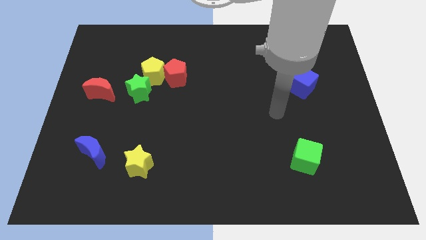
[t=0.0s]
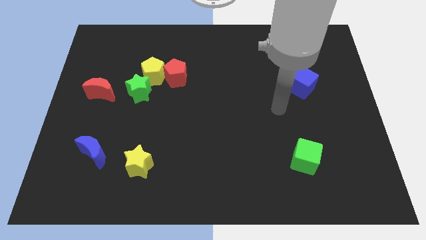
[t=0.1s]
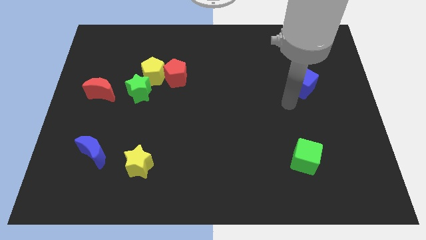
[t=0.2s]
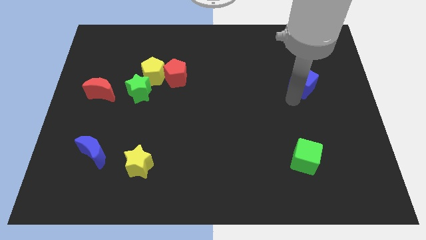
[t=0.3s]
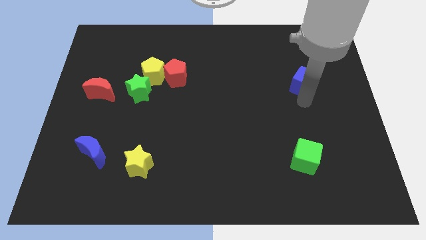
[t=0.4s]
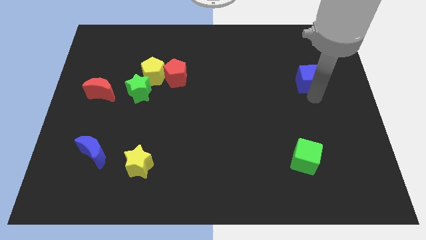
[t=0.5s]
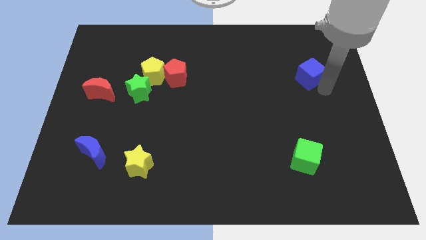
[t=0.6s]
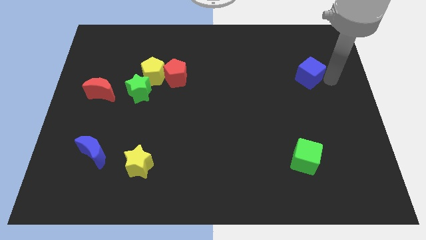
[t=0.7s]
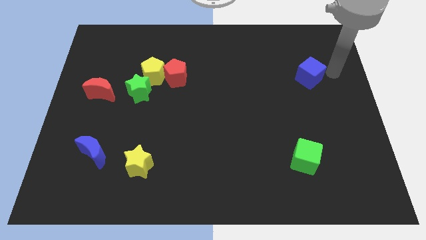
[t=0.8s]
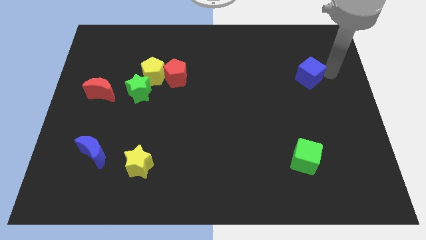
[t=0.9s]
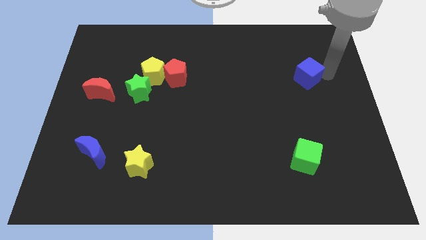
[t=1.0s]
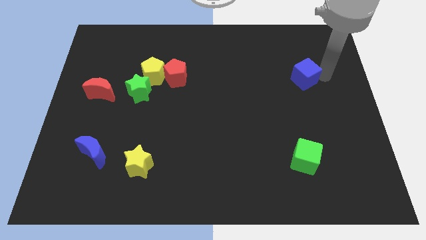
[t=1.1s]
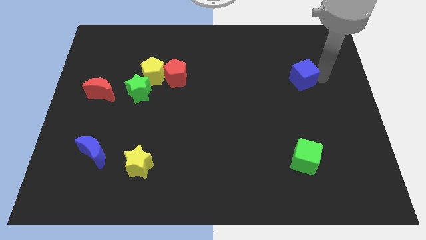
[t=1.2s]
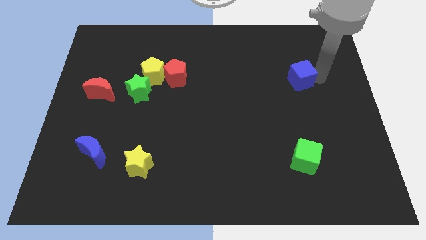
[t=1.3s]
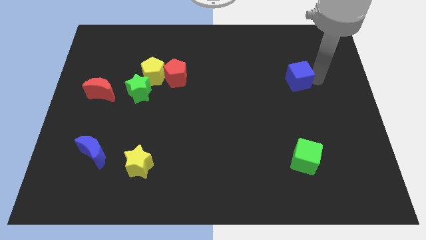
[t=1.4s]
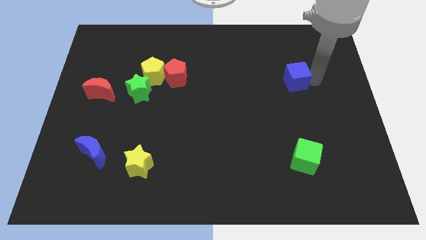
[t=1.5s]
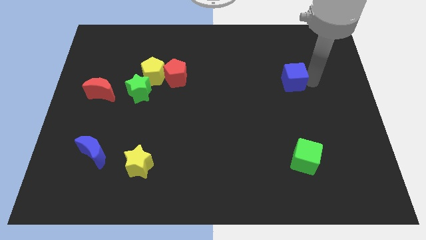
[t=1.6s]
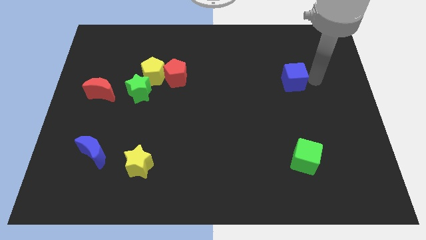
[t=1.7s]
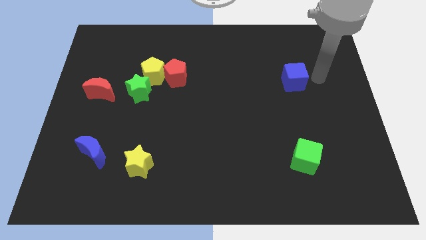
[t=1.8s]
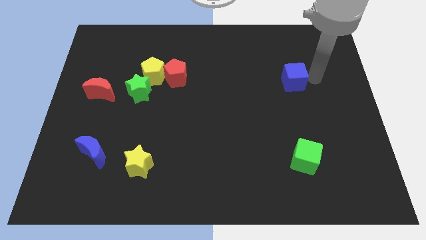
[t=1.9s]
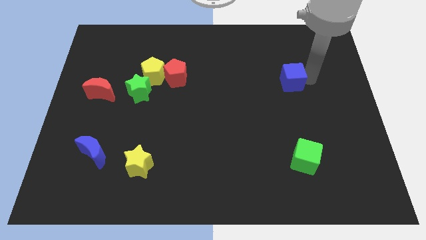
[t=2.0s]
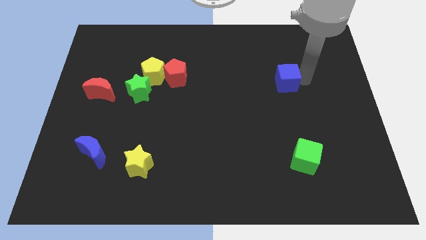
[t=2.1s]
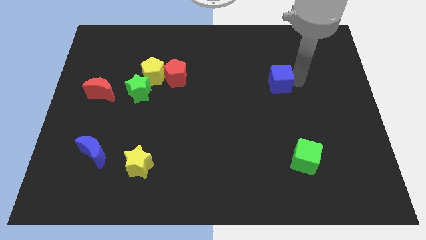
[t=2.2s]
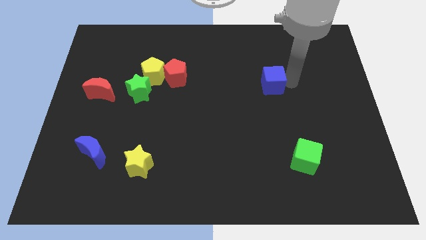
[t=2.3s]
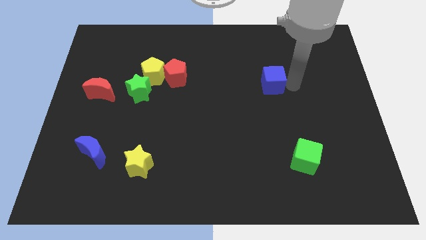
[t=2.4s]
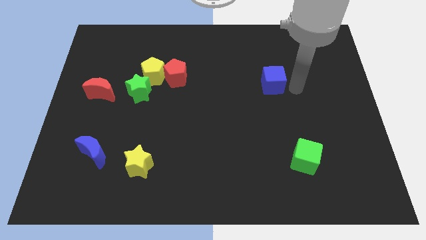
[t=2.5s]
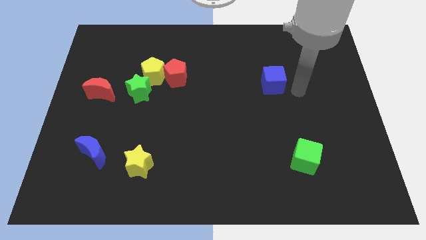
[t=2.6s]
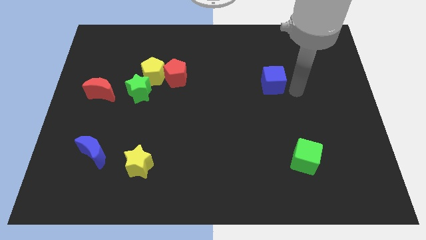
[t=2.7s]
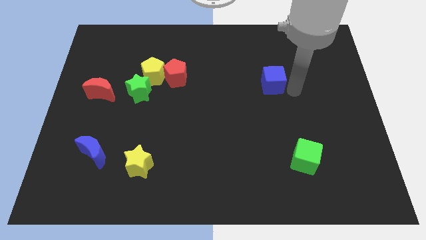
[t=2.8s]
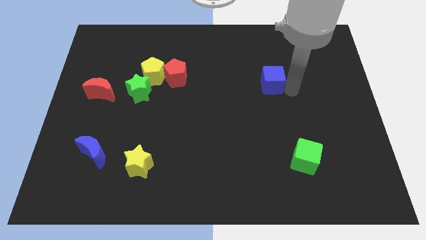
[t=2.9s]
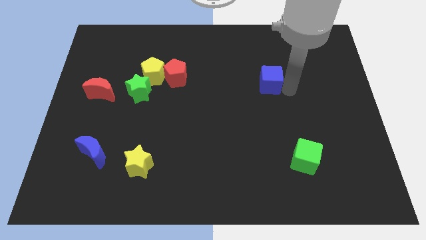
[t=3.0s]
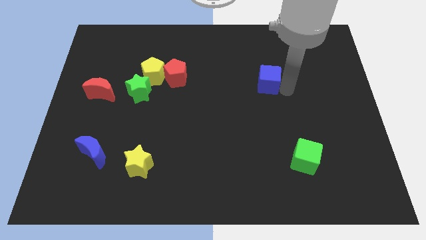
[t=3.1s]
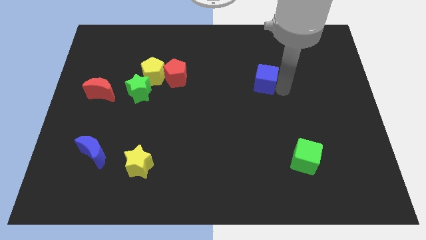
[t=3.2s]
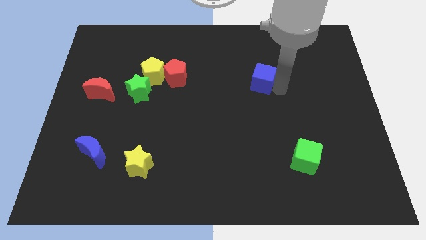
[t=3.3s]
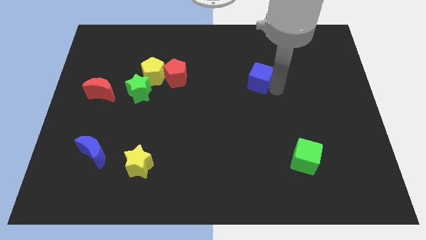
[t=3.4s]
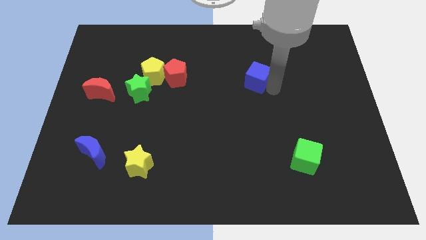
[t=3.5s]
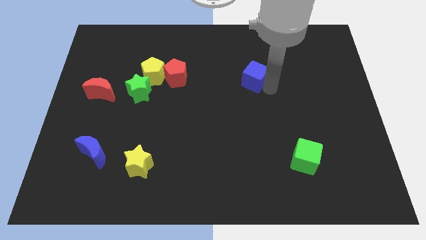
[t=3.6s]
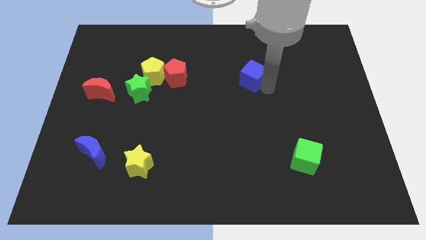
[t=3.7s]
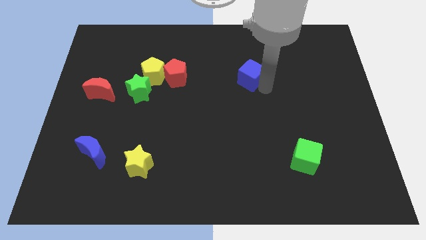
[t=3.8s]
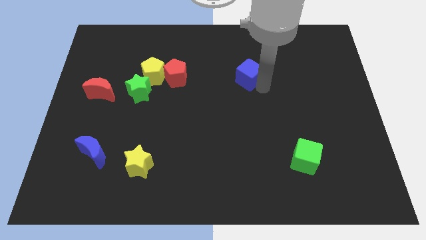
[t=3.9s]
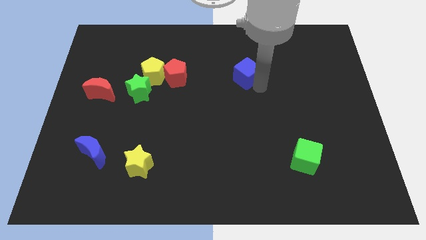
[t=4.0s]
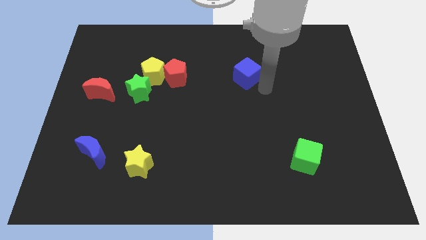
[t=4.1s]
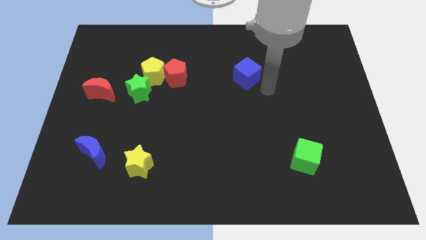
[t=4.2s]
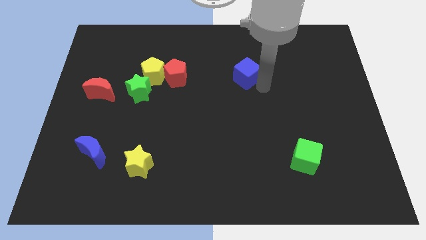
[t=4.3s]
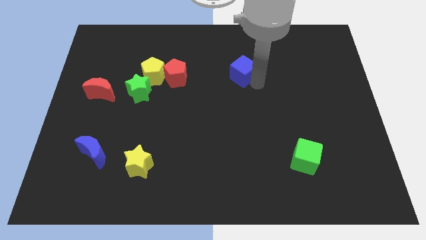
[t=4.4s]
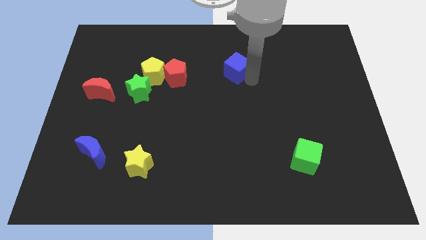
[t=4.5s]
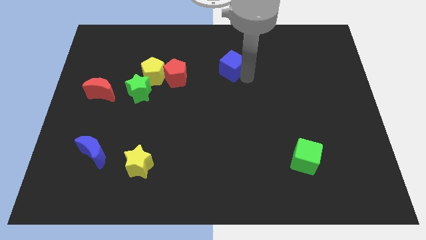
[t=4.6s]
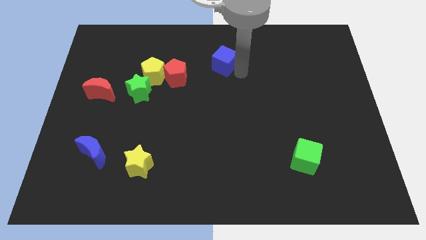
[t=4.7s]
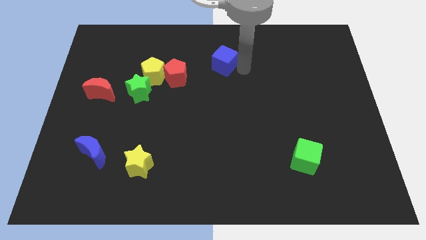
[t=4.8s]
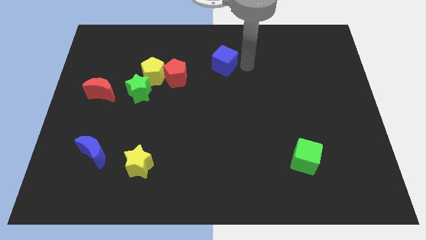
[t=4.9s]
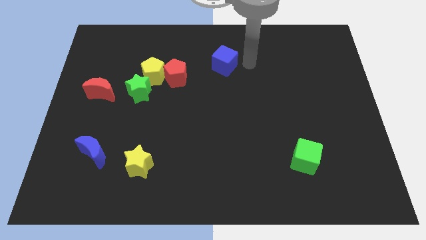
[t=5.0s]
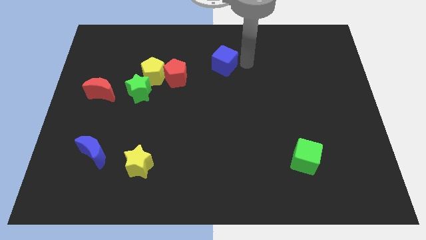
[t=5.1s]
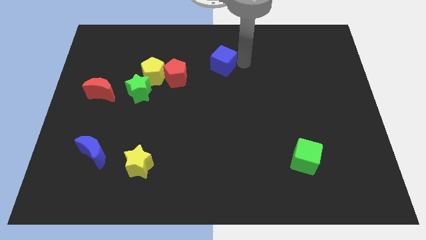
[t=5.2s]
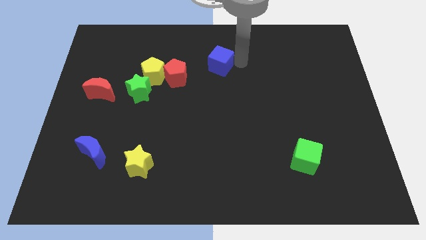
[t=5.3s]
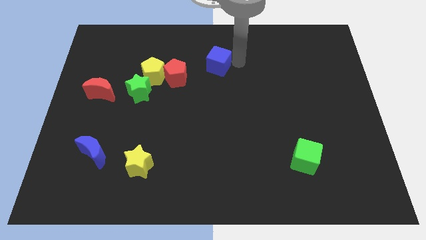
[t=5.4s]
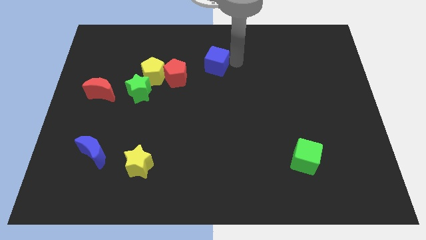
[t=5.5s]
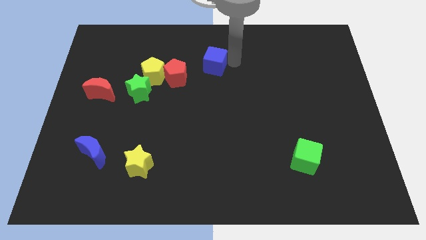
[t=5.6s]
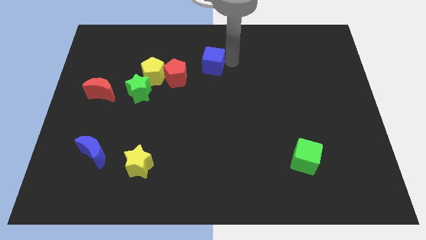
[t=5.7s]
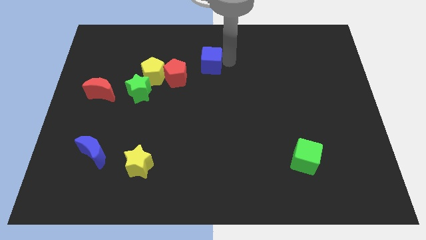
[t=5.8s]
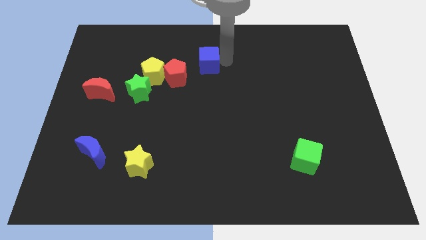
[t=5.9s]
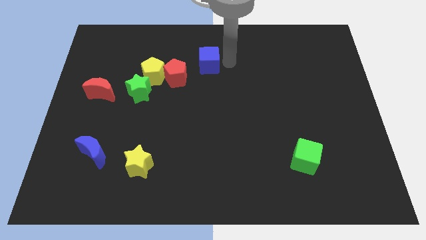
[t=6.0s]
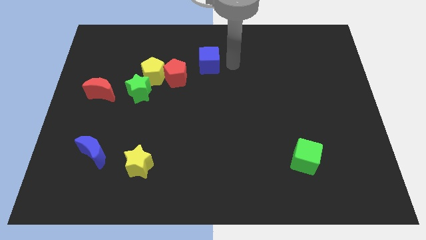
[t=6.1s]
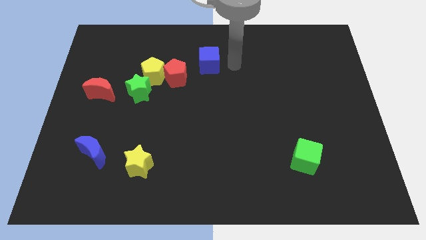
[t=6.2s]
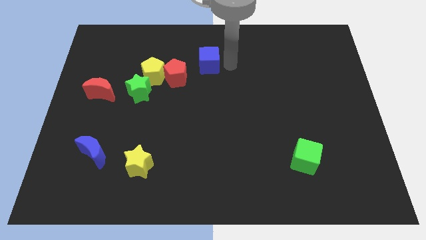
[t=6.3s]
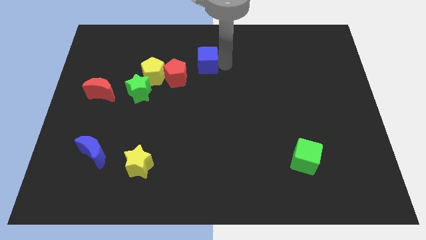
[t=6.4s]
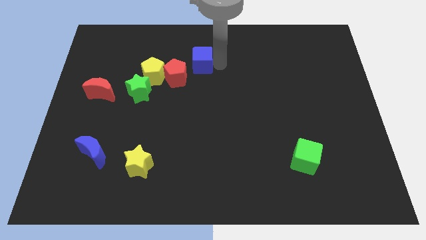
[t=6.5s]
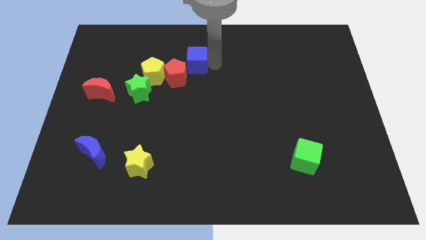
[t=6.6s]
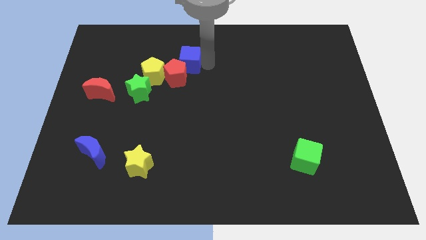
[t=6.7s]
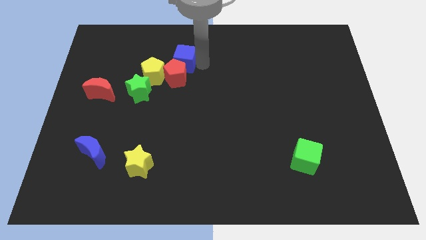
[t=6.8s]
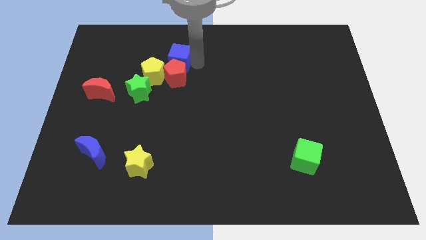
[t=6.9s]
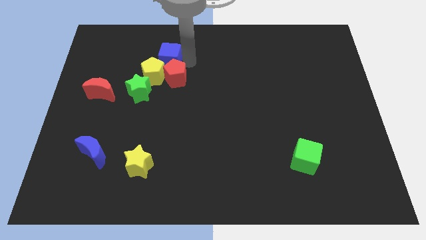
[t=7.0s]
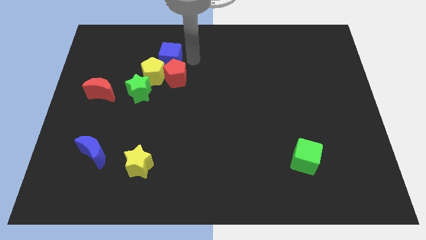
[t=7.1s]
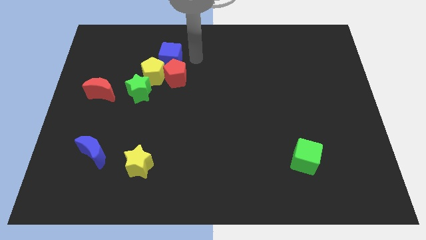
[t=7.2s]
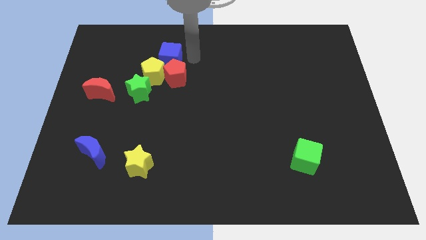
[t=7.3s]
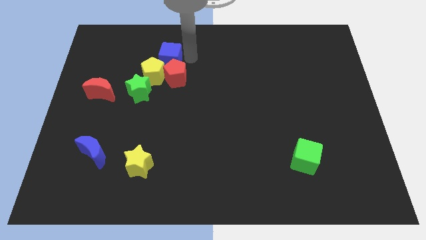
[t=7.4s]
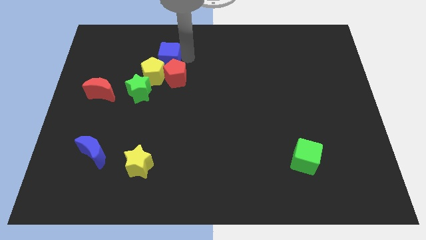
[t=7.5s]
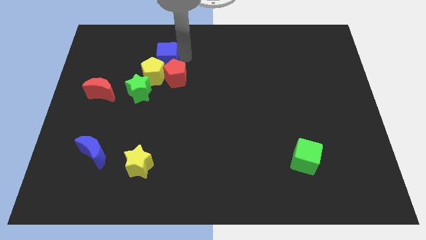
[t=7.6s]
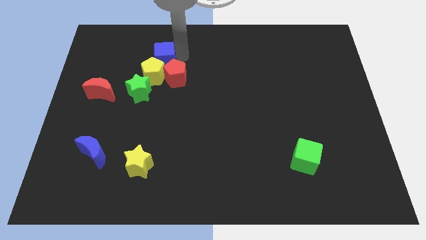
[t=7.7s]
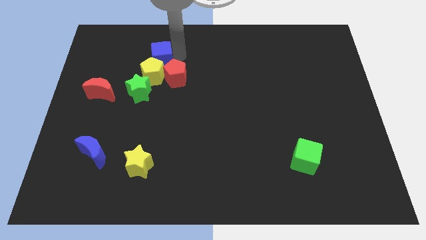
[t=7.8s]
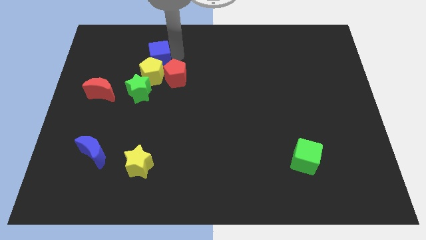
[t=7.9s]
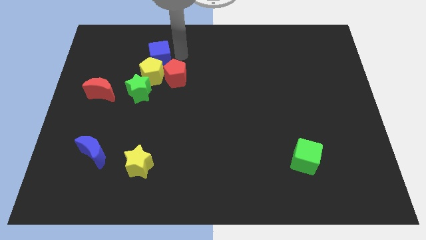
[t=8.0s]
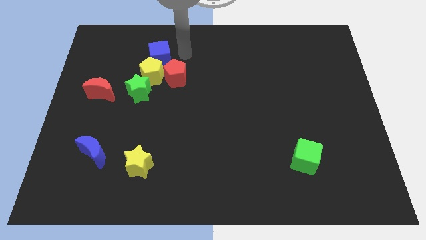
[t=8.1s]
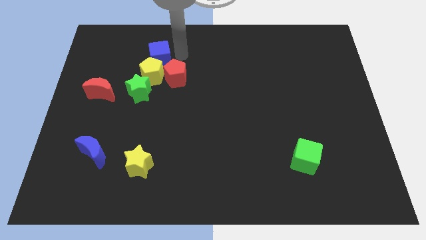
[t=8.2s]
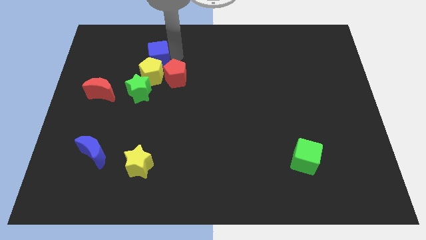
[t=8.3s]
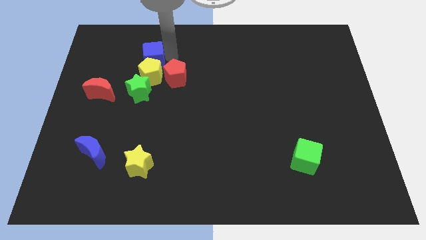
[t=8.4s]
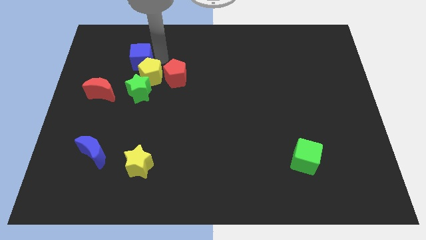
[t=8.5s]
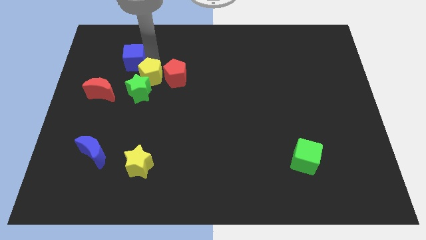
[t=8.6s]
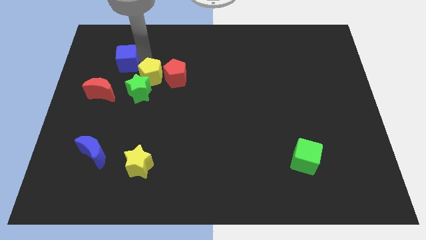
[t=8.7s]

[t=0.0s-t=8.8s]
put the blue cube to the top side of the red moon
